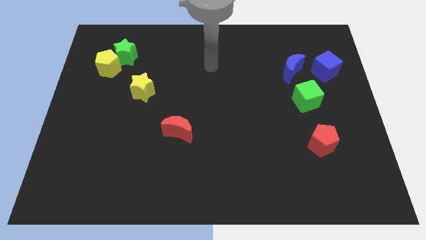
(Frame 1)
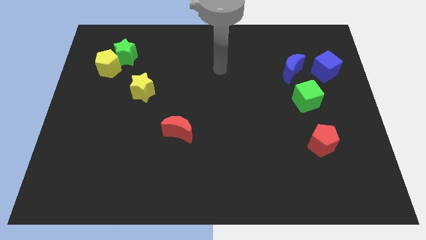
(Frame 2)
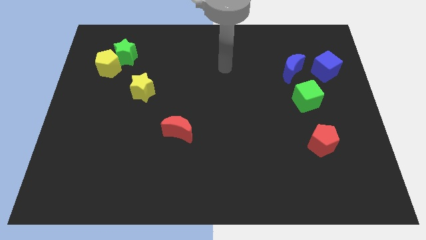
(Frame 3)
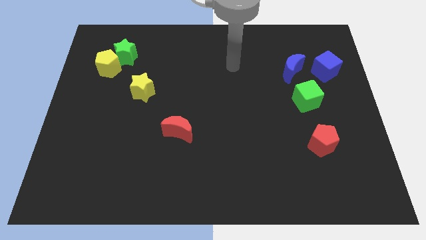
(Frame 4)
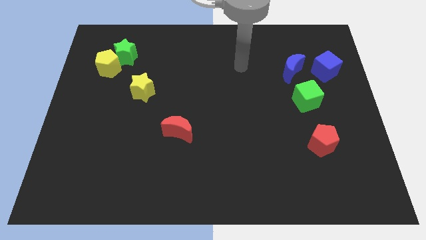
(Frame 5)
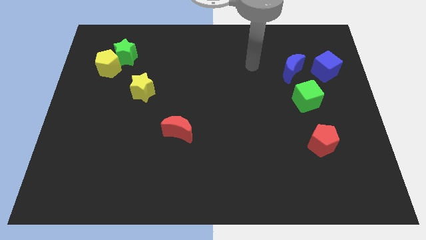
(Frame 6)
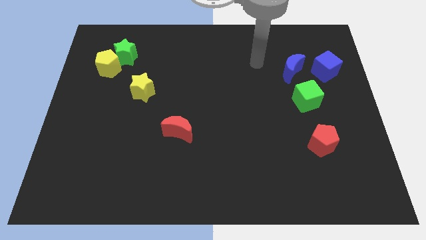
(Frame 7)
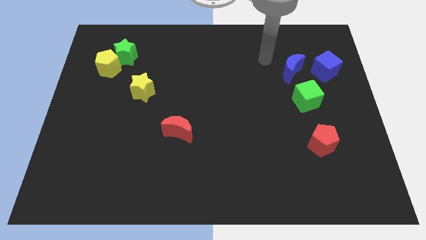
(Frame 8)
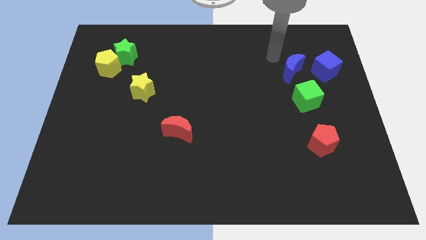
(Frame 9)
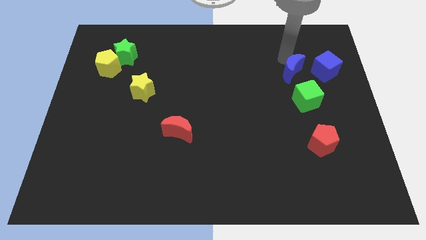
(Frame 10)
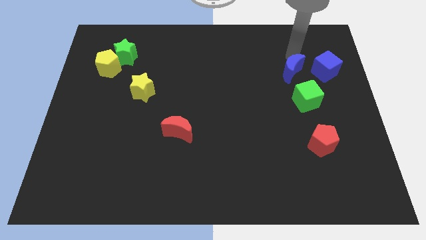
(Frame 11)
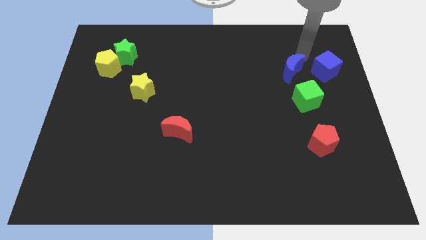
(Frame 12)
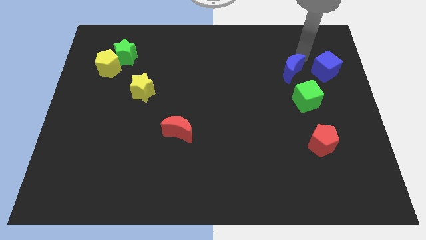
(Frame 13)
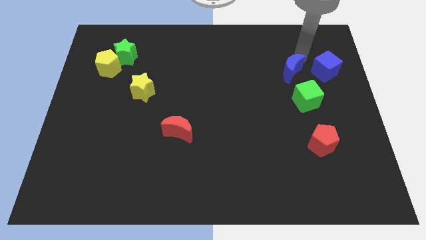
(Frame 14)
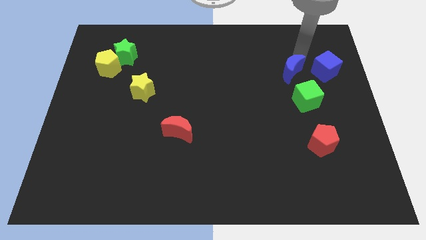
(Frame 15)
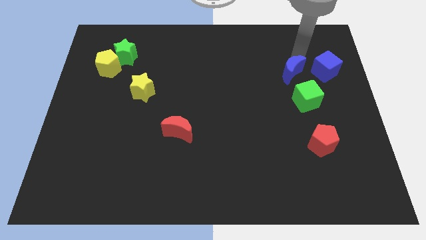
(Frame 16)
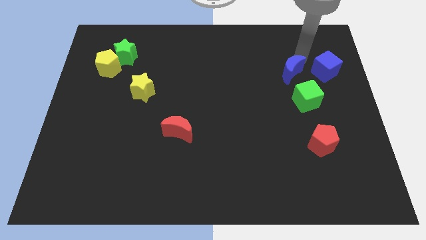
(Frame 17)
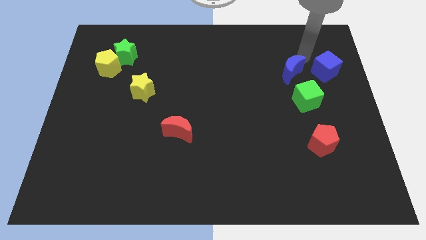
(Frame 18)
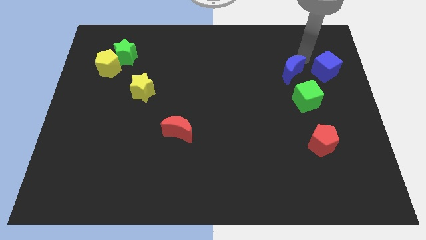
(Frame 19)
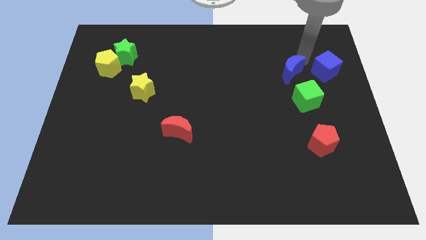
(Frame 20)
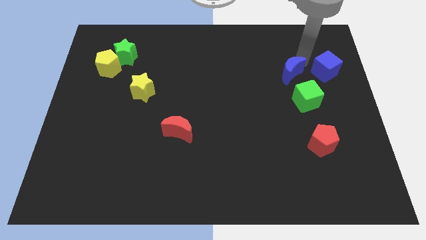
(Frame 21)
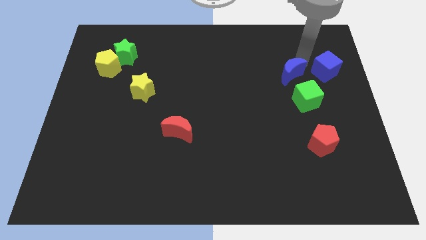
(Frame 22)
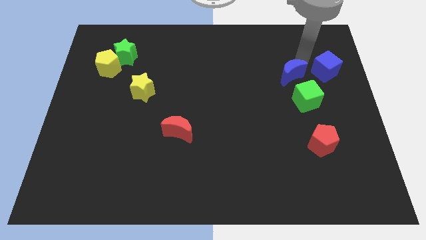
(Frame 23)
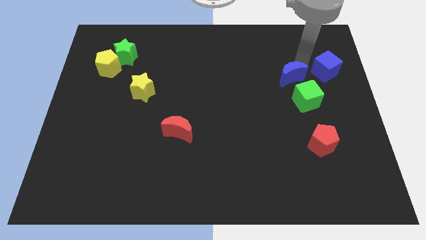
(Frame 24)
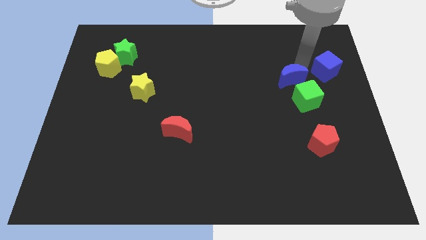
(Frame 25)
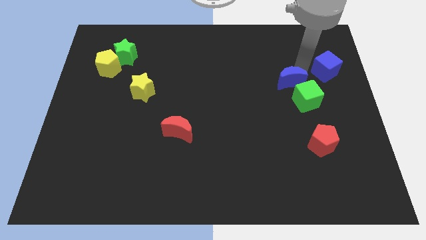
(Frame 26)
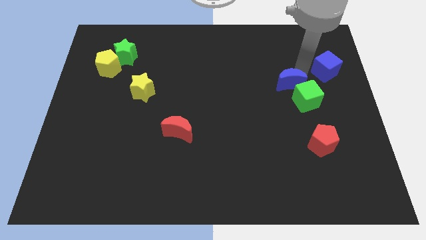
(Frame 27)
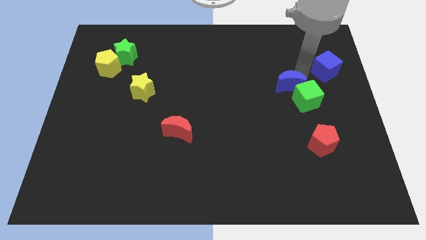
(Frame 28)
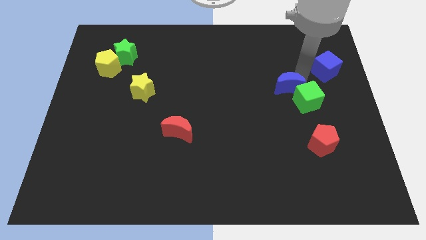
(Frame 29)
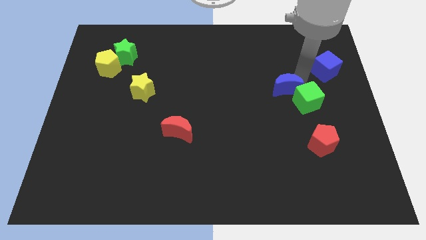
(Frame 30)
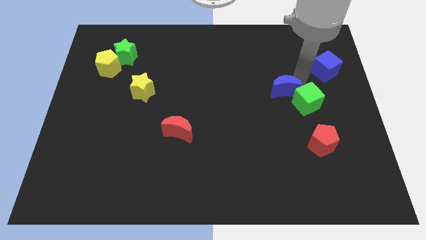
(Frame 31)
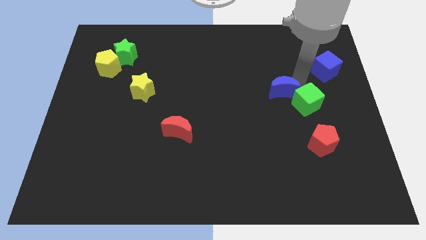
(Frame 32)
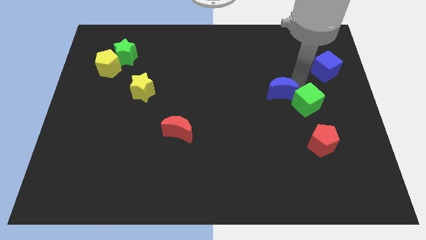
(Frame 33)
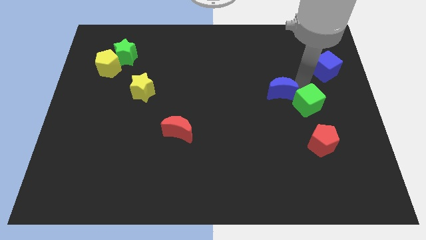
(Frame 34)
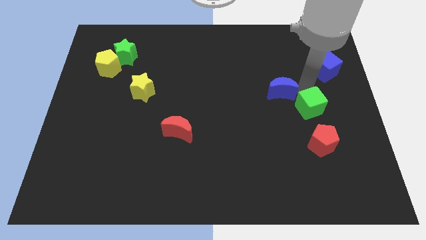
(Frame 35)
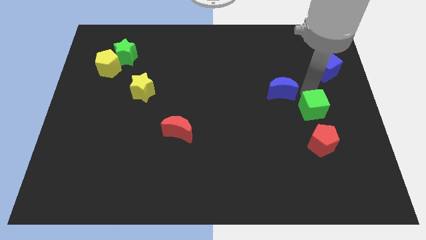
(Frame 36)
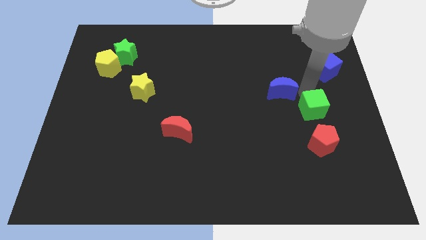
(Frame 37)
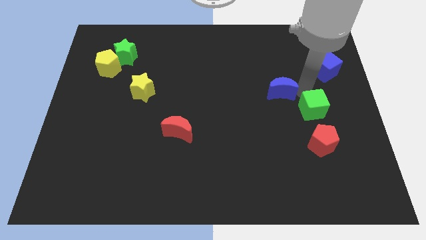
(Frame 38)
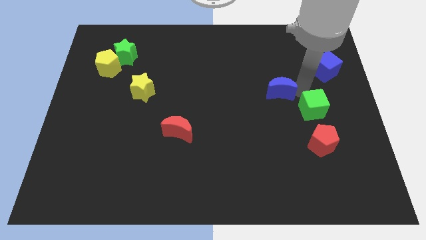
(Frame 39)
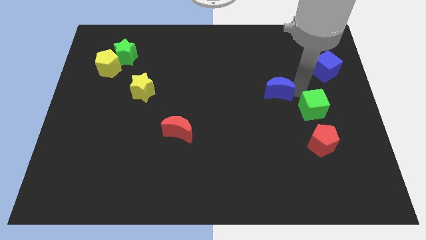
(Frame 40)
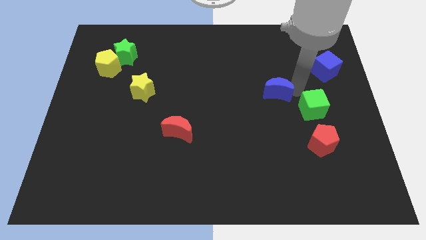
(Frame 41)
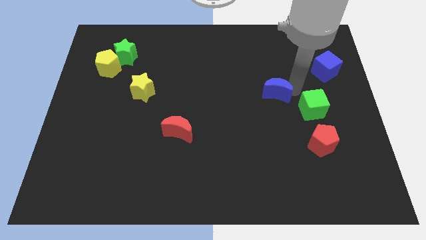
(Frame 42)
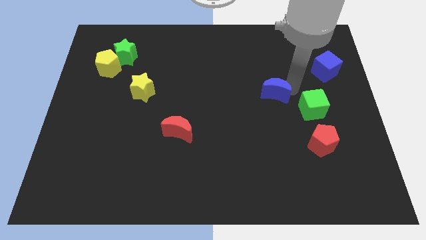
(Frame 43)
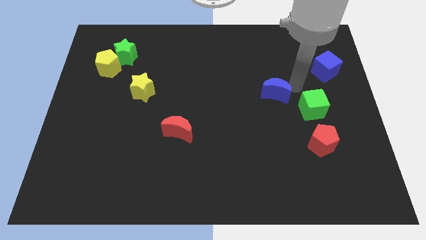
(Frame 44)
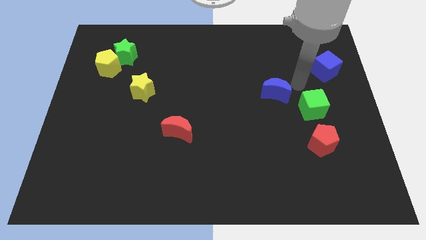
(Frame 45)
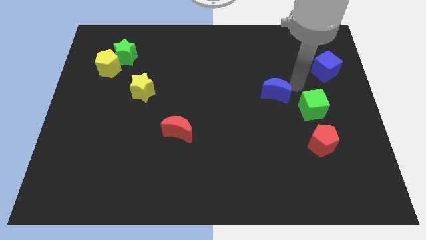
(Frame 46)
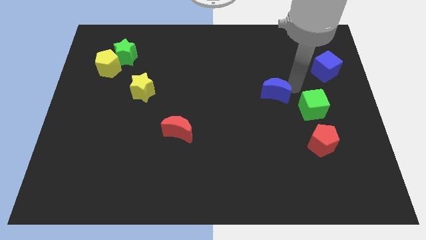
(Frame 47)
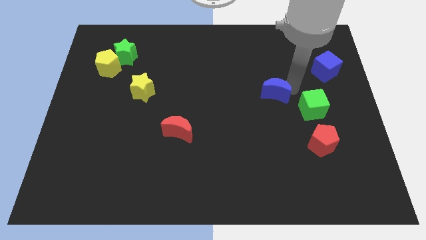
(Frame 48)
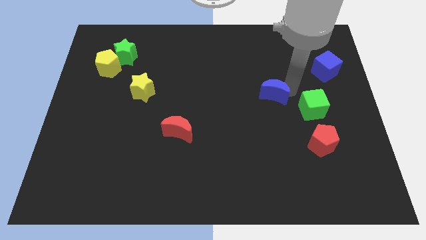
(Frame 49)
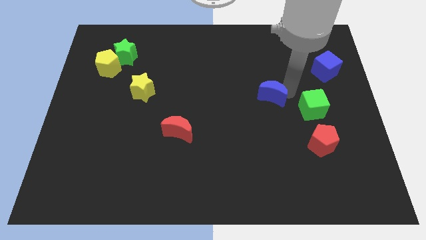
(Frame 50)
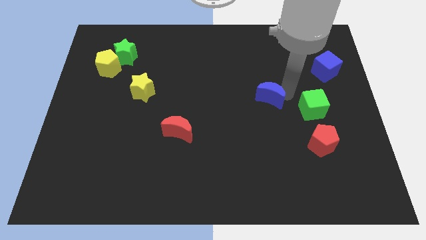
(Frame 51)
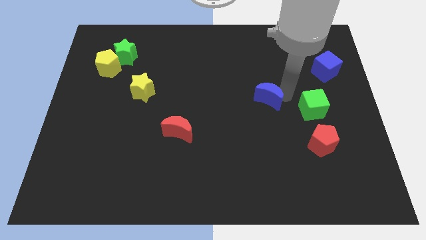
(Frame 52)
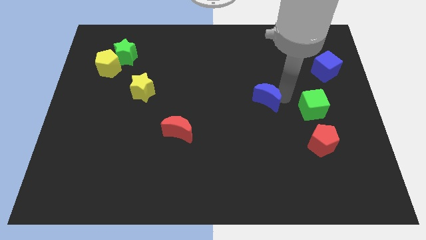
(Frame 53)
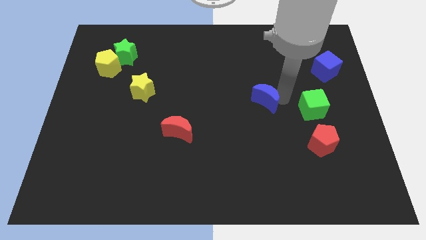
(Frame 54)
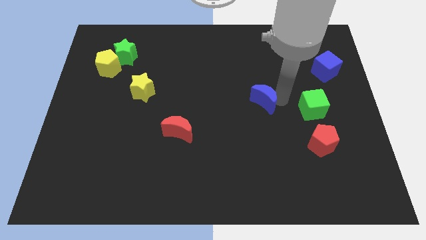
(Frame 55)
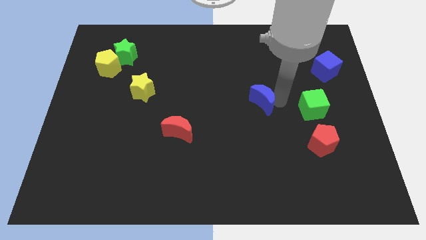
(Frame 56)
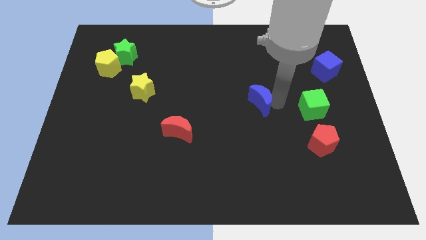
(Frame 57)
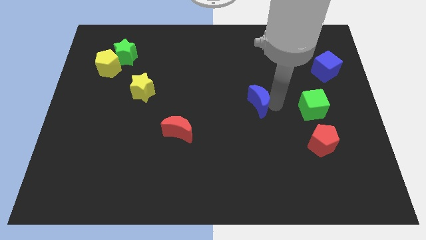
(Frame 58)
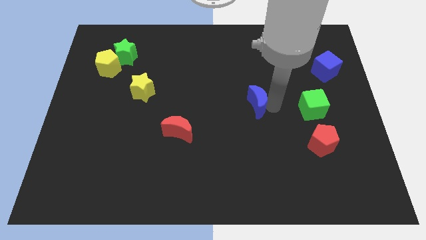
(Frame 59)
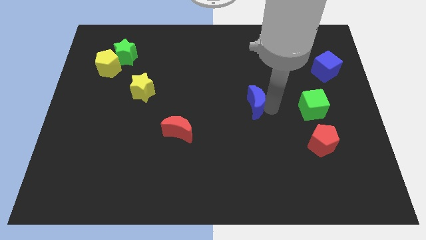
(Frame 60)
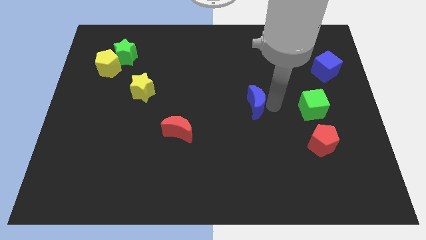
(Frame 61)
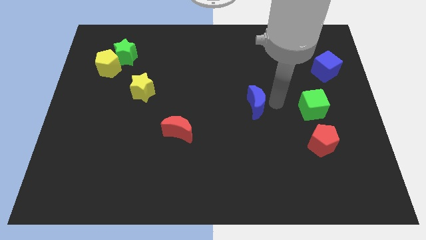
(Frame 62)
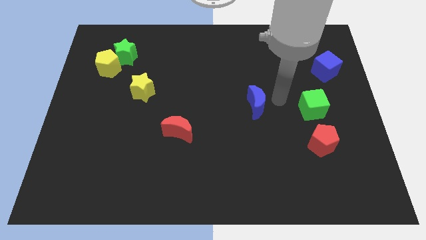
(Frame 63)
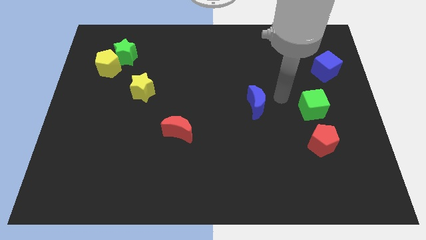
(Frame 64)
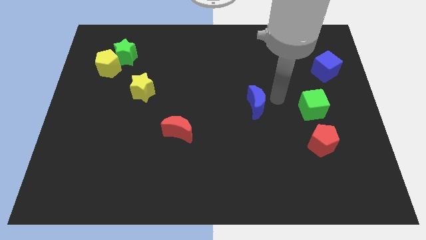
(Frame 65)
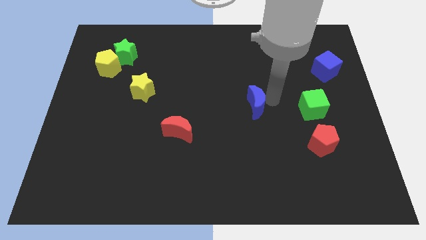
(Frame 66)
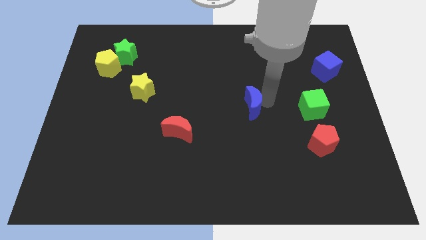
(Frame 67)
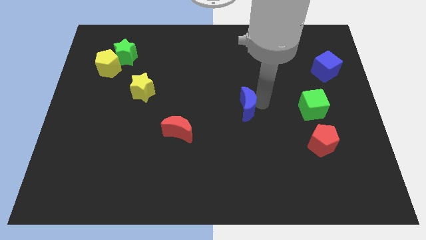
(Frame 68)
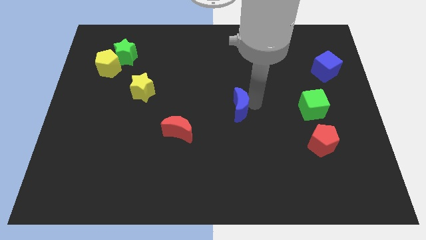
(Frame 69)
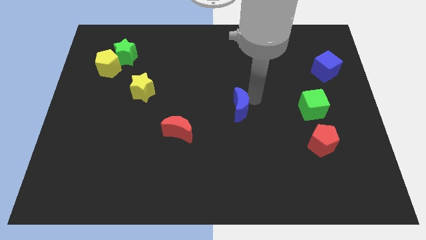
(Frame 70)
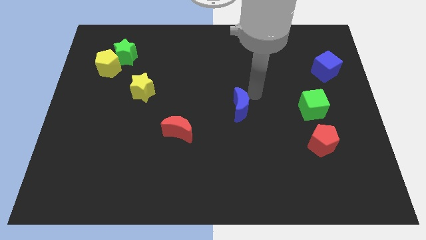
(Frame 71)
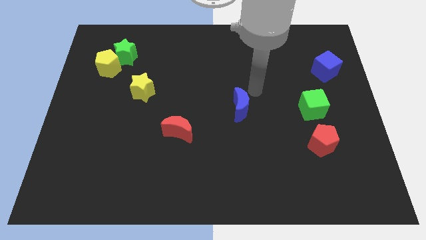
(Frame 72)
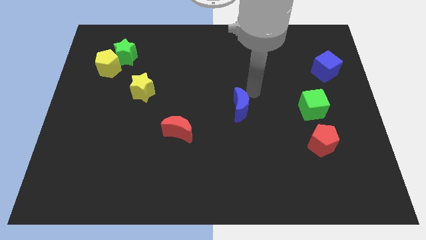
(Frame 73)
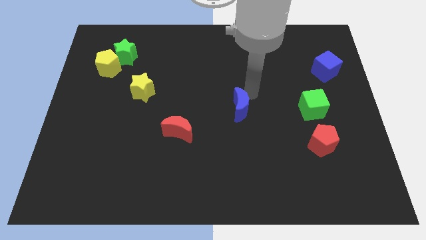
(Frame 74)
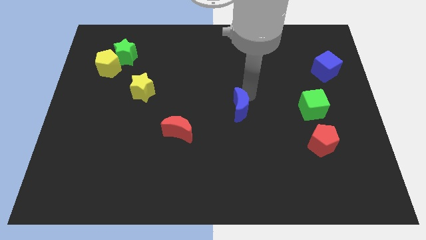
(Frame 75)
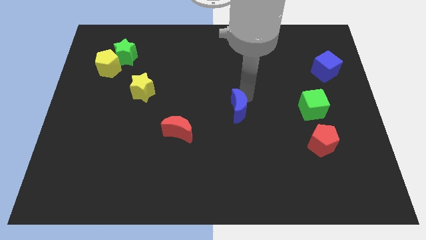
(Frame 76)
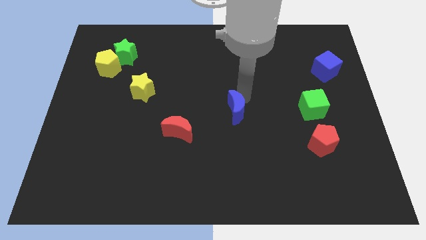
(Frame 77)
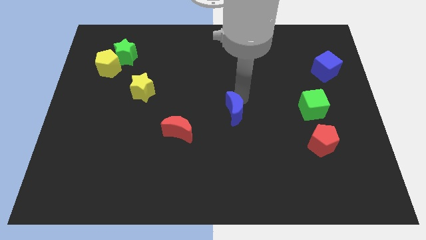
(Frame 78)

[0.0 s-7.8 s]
push the blue moon downwards and then left

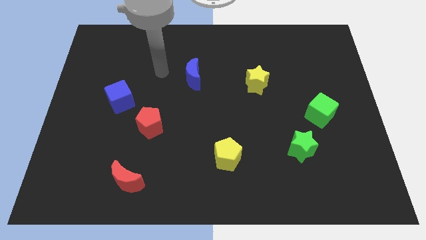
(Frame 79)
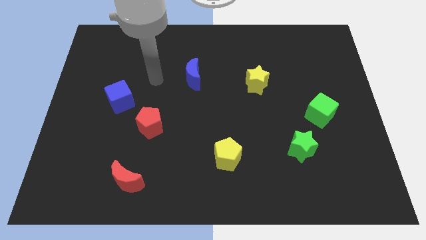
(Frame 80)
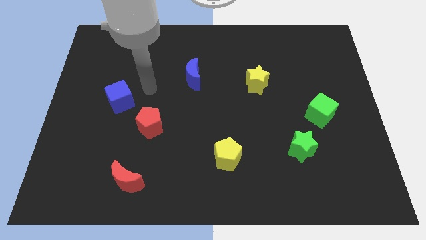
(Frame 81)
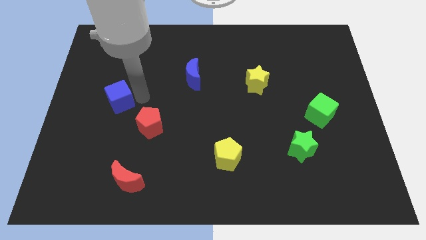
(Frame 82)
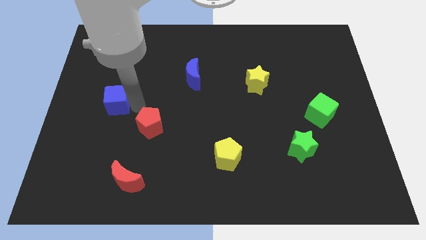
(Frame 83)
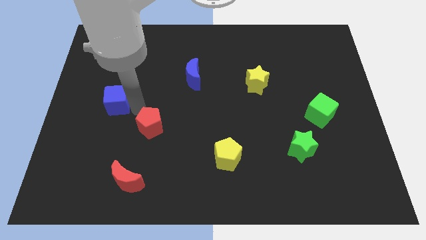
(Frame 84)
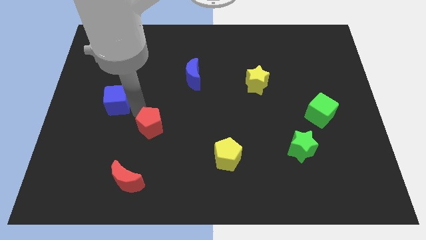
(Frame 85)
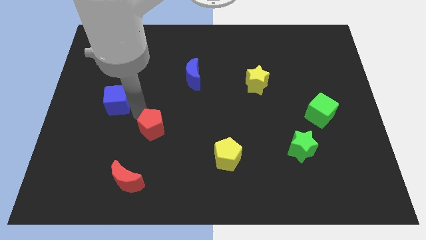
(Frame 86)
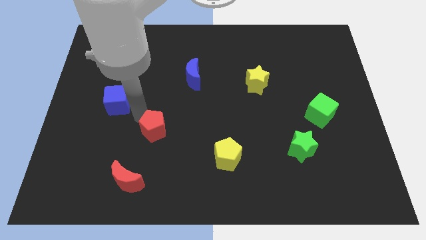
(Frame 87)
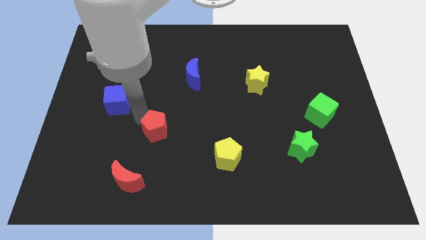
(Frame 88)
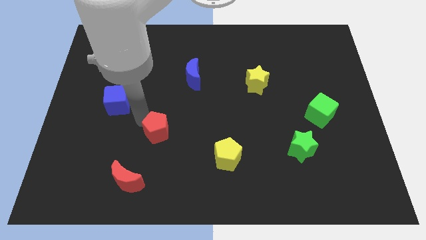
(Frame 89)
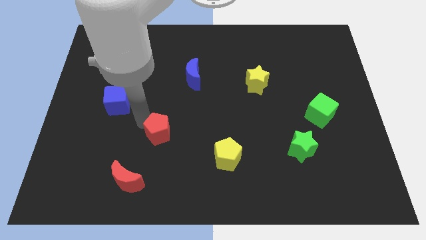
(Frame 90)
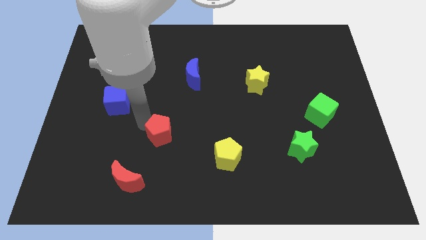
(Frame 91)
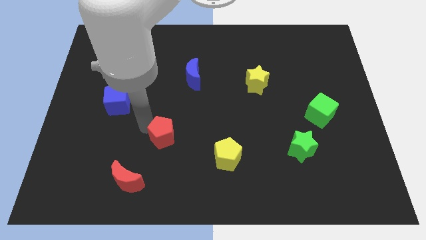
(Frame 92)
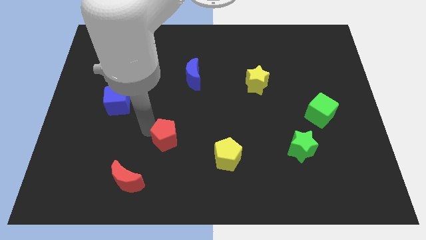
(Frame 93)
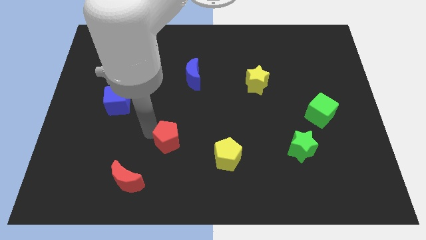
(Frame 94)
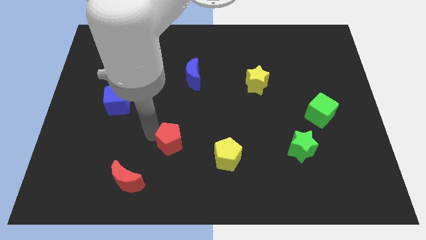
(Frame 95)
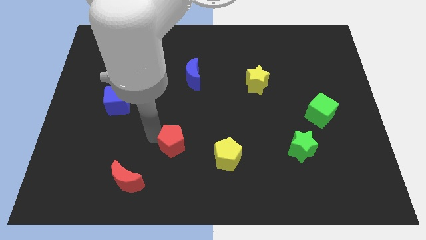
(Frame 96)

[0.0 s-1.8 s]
slightly slide the red pentagon diagonally downwards and right
